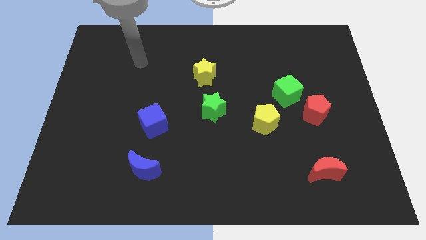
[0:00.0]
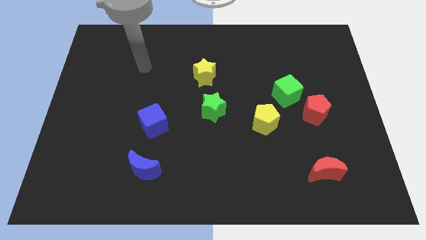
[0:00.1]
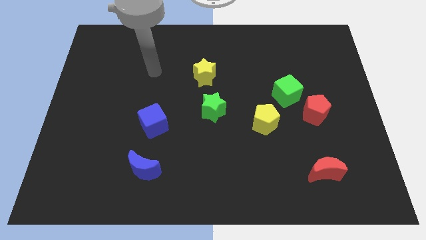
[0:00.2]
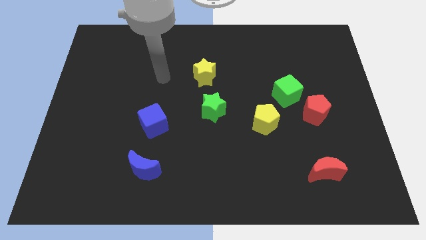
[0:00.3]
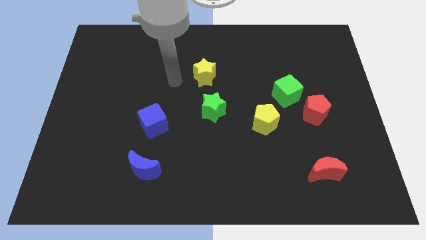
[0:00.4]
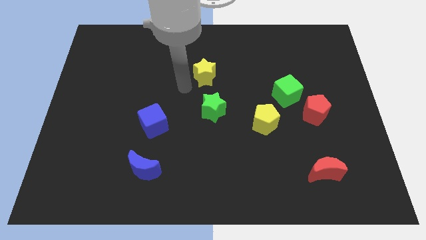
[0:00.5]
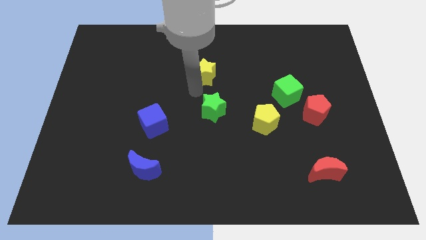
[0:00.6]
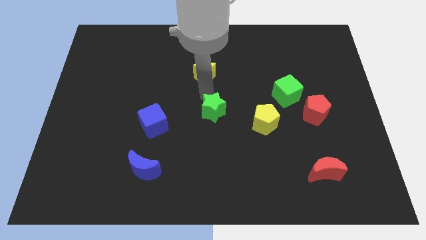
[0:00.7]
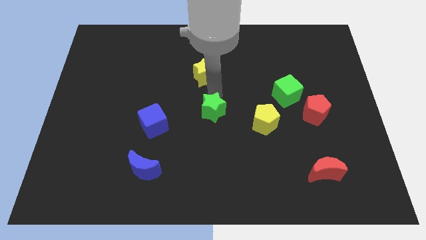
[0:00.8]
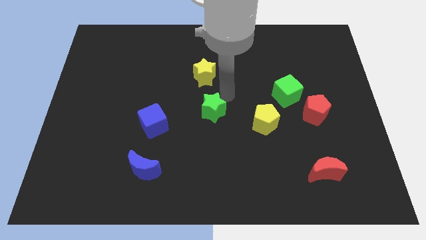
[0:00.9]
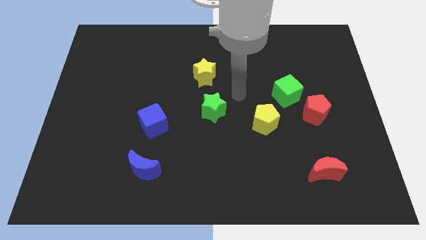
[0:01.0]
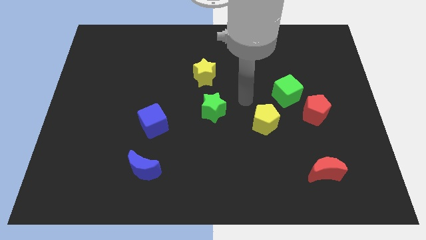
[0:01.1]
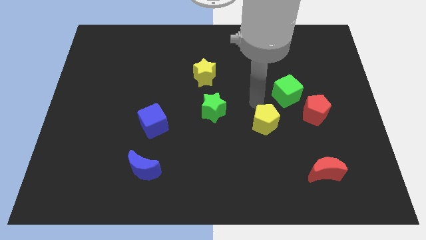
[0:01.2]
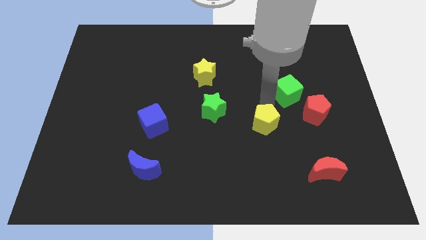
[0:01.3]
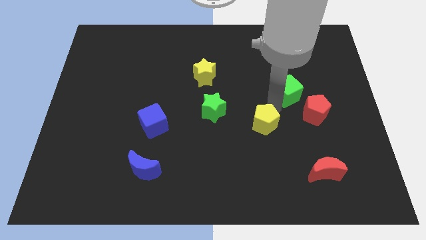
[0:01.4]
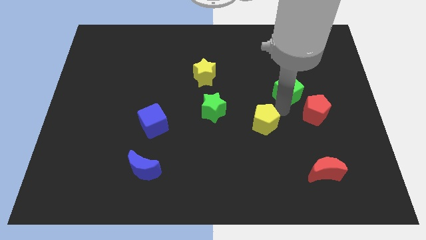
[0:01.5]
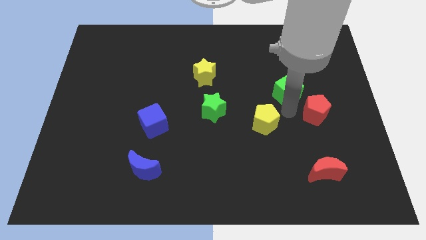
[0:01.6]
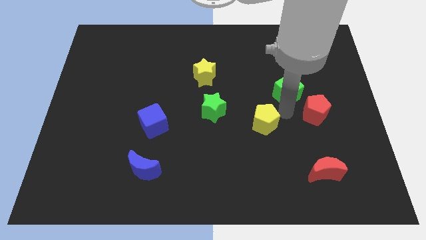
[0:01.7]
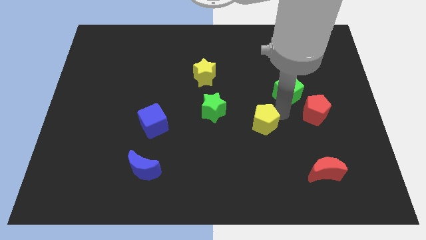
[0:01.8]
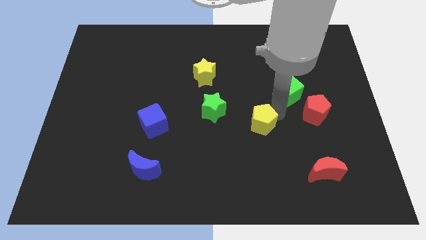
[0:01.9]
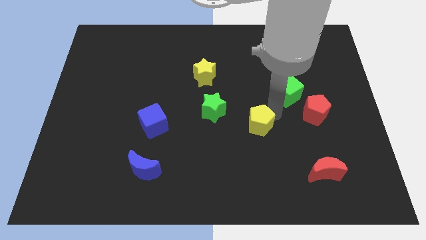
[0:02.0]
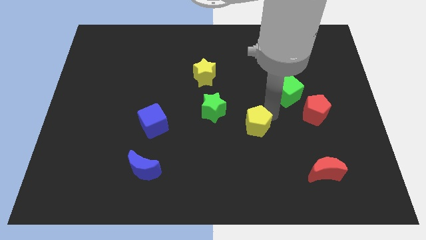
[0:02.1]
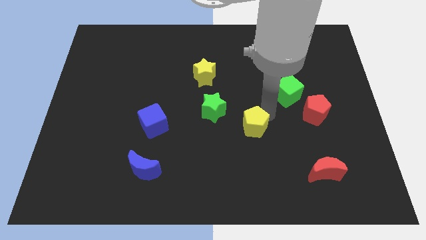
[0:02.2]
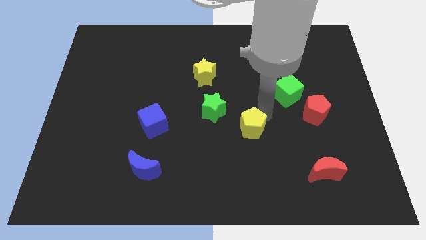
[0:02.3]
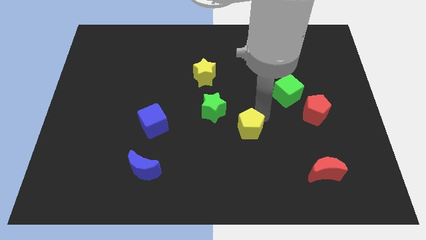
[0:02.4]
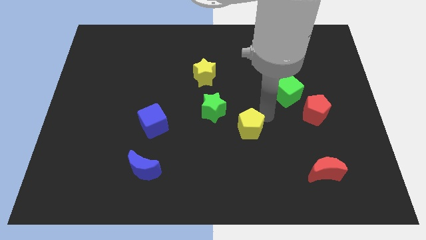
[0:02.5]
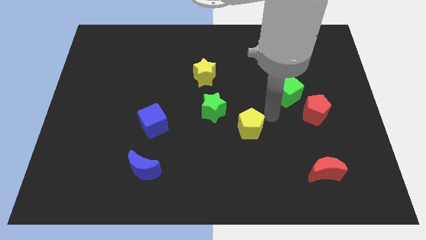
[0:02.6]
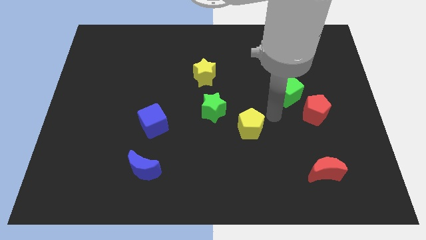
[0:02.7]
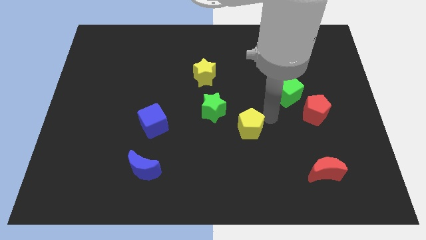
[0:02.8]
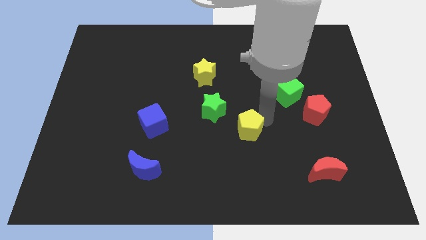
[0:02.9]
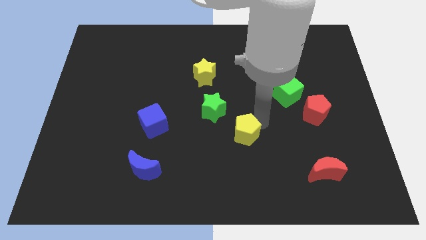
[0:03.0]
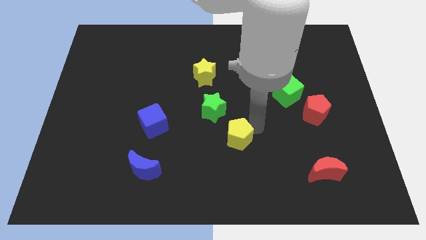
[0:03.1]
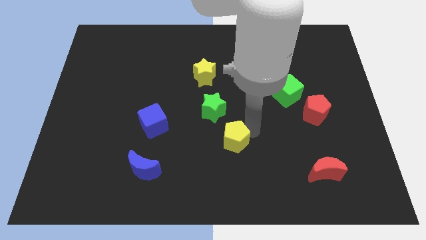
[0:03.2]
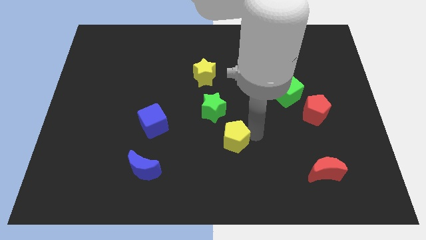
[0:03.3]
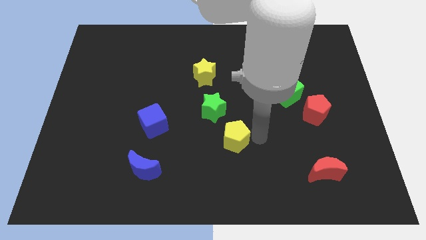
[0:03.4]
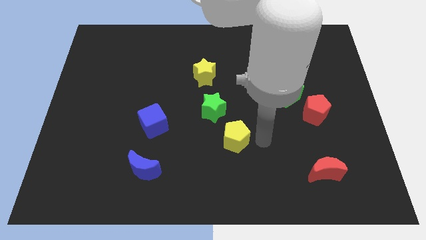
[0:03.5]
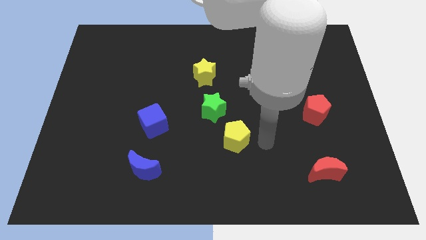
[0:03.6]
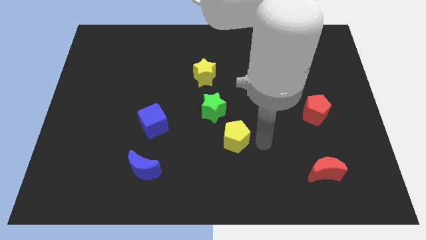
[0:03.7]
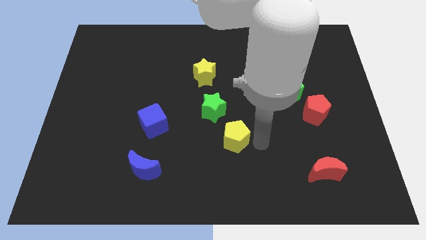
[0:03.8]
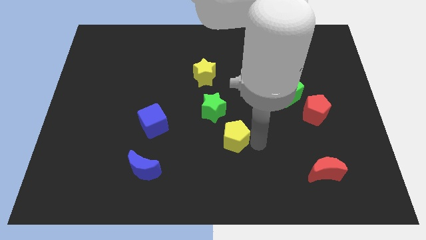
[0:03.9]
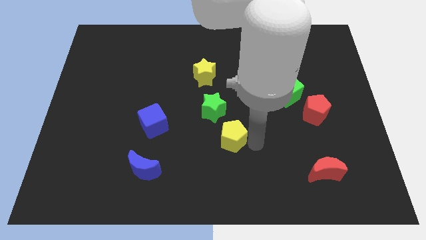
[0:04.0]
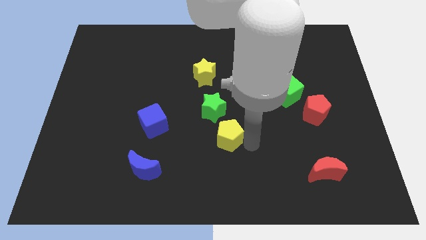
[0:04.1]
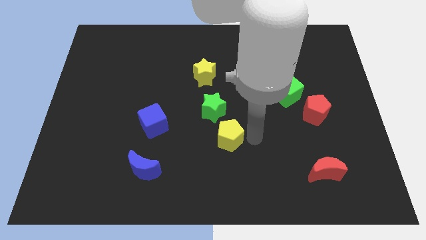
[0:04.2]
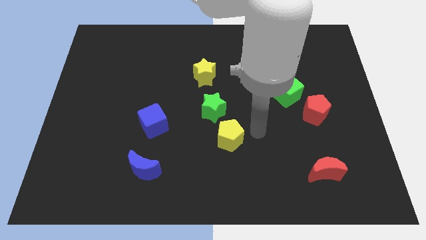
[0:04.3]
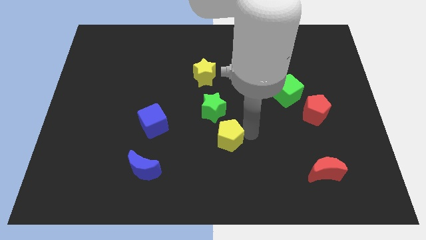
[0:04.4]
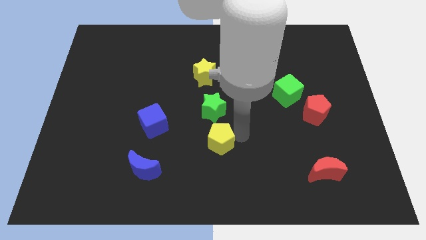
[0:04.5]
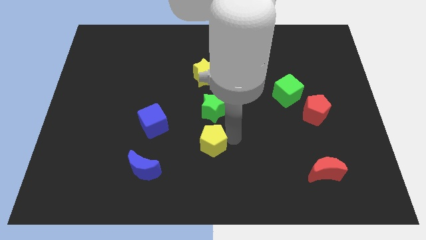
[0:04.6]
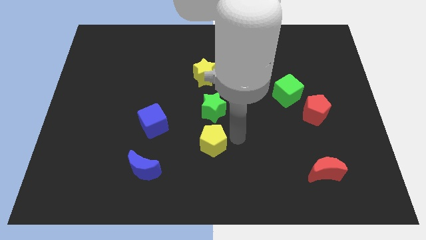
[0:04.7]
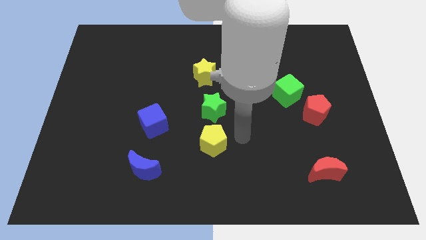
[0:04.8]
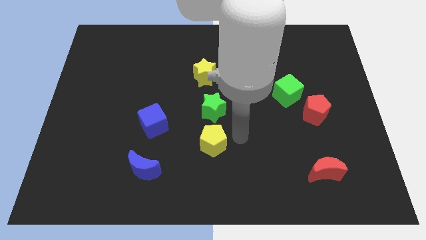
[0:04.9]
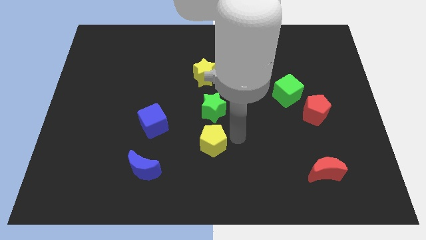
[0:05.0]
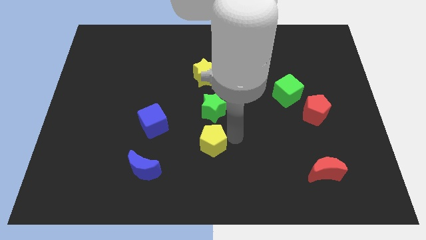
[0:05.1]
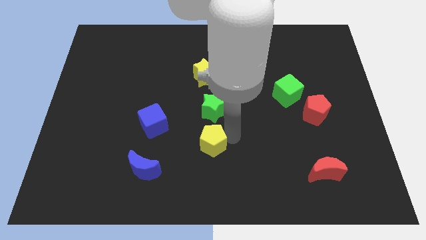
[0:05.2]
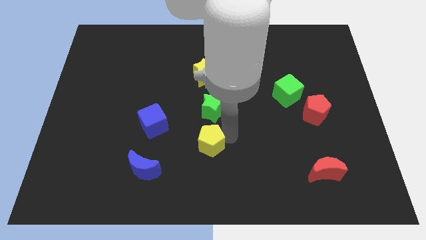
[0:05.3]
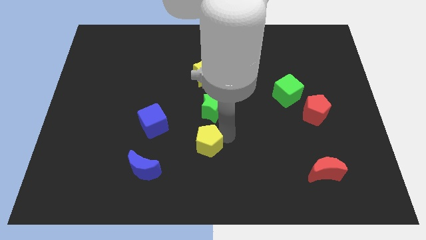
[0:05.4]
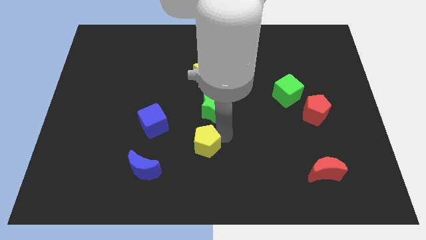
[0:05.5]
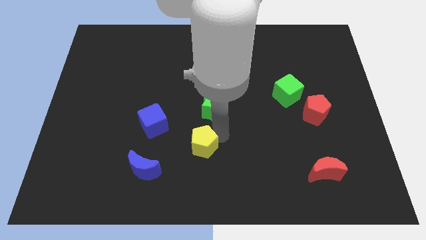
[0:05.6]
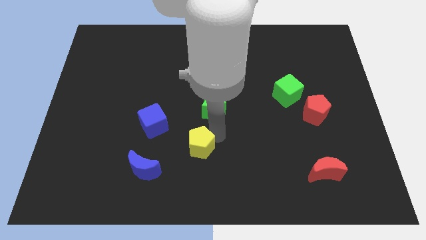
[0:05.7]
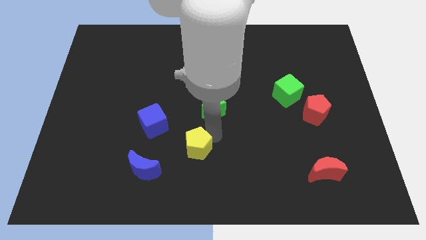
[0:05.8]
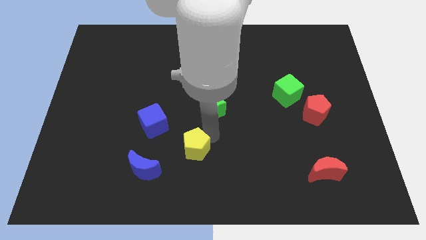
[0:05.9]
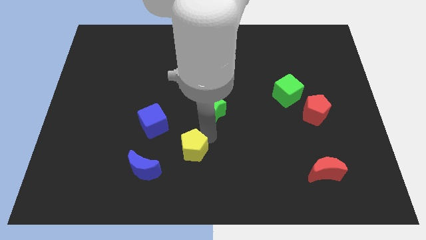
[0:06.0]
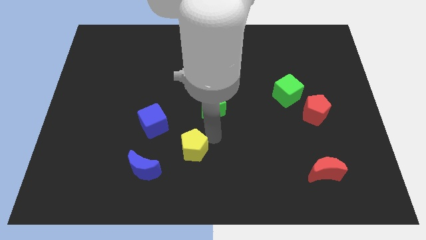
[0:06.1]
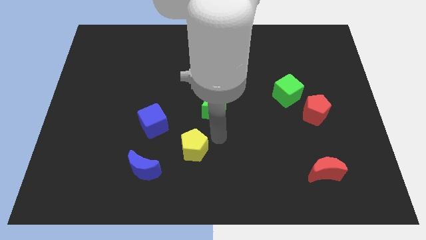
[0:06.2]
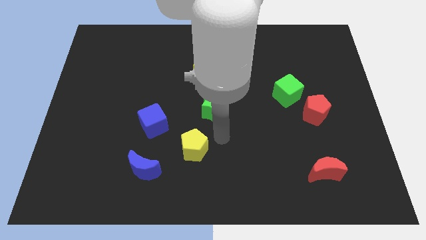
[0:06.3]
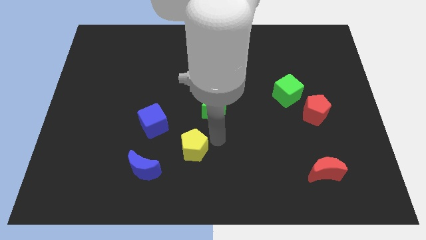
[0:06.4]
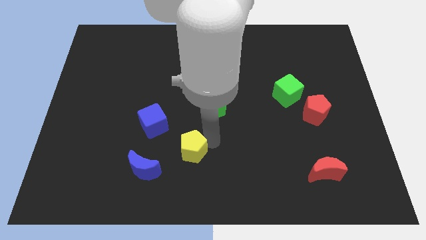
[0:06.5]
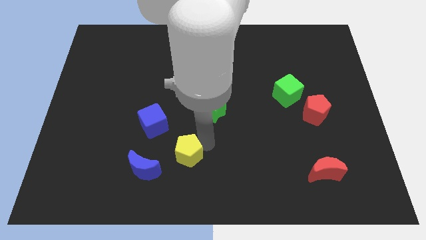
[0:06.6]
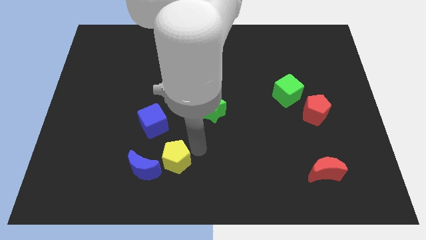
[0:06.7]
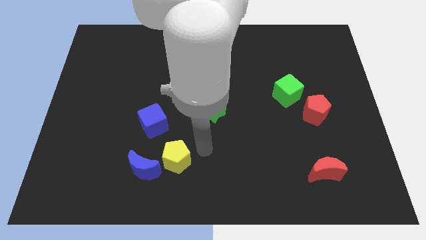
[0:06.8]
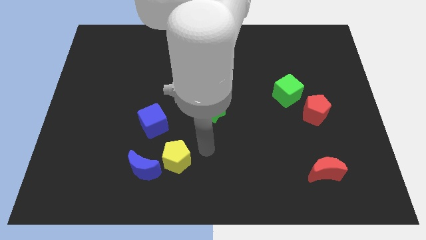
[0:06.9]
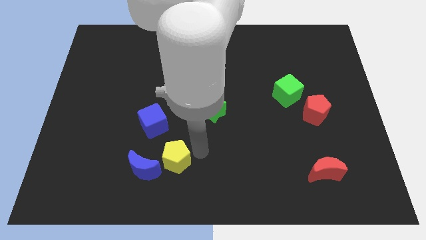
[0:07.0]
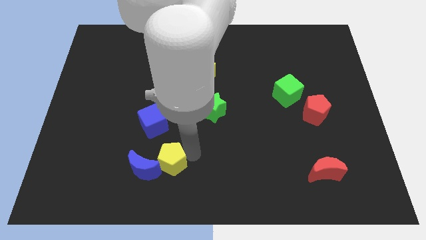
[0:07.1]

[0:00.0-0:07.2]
slide the yellow pentagon to the blue moon
